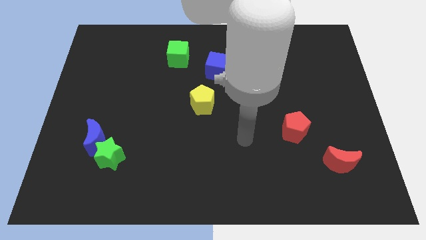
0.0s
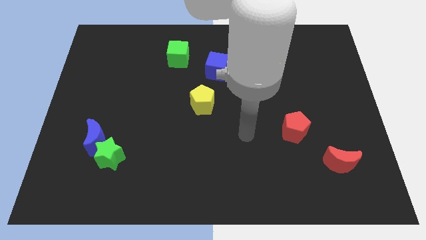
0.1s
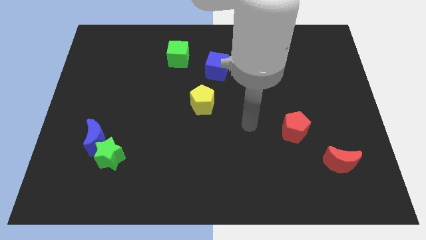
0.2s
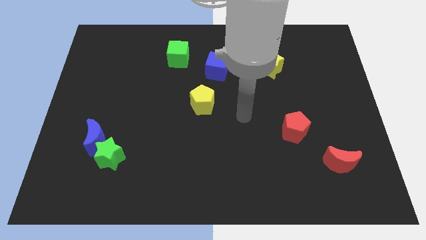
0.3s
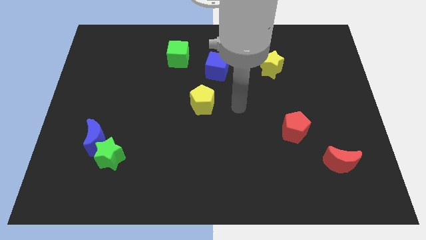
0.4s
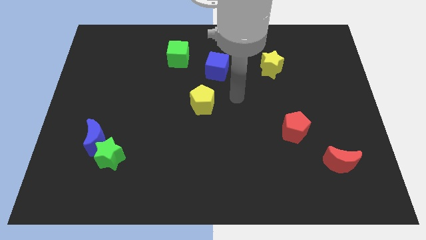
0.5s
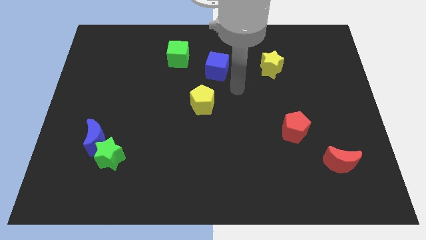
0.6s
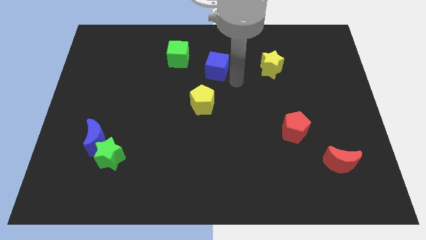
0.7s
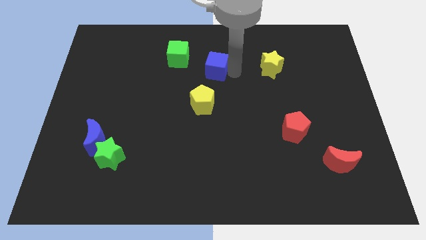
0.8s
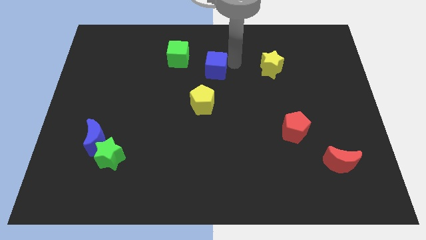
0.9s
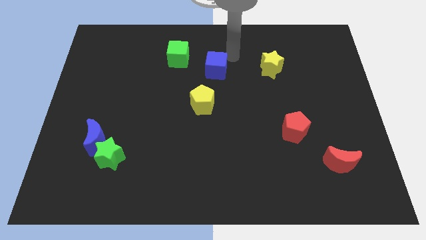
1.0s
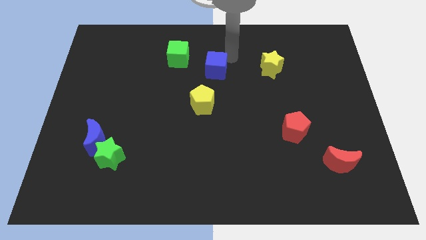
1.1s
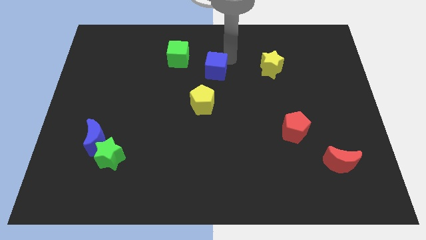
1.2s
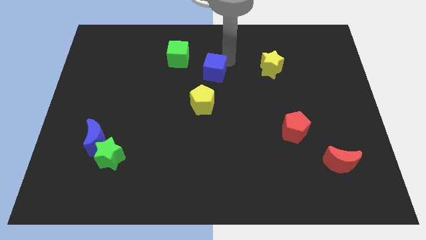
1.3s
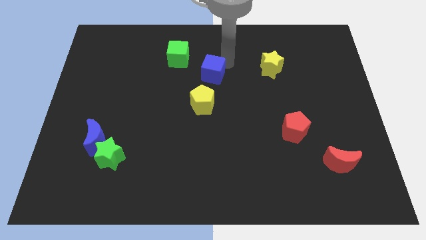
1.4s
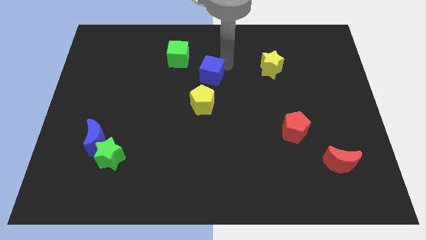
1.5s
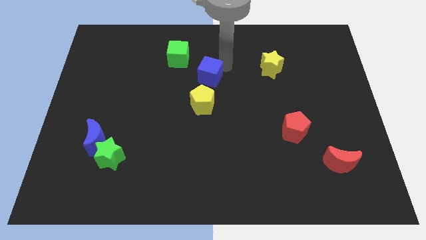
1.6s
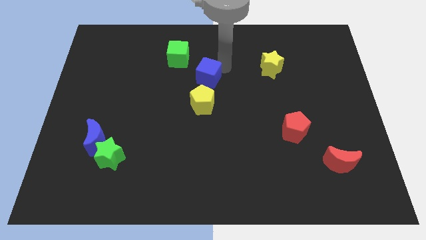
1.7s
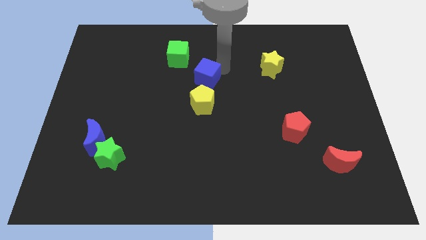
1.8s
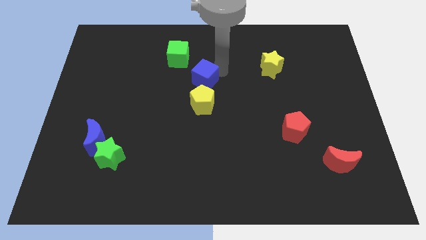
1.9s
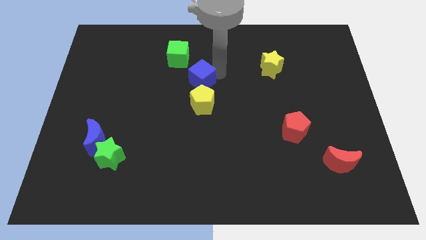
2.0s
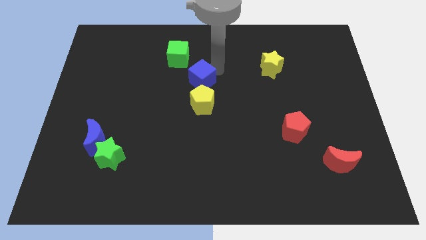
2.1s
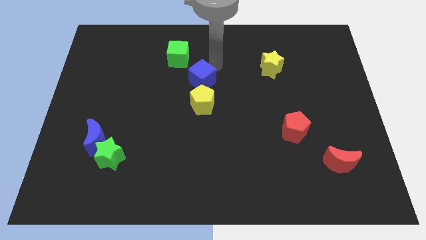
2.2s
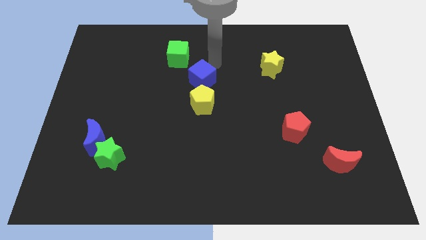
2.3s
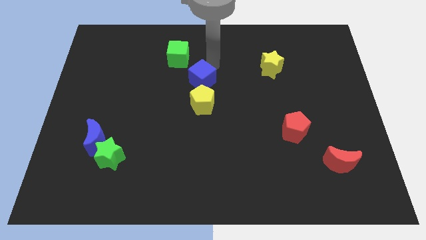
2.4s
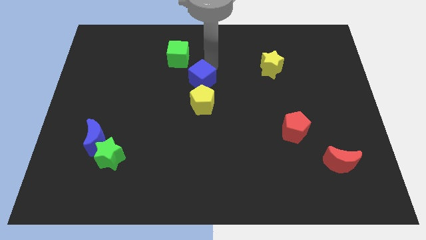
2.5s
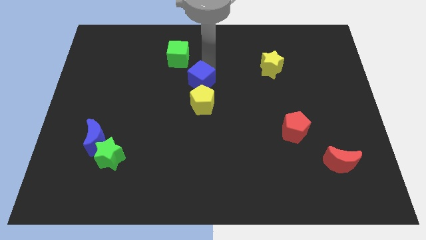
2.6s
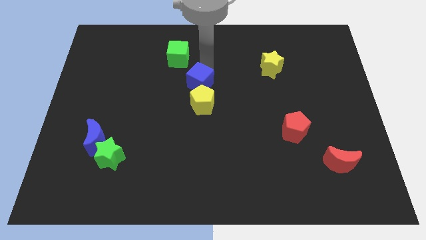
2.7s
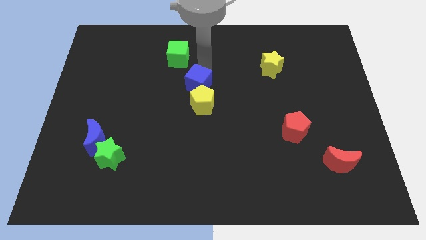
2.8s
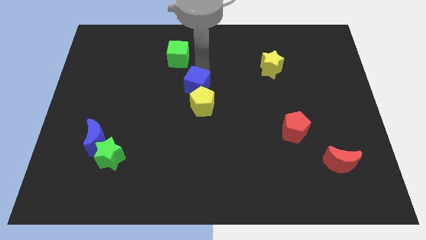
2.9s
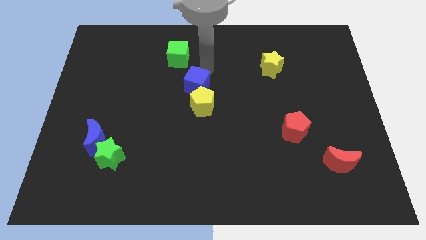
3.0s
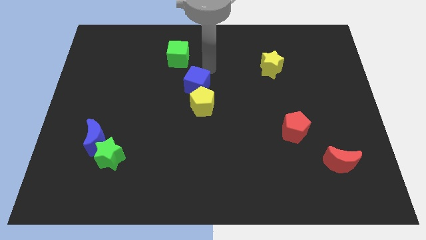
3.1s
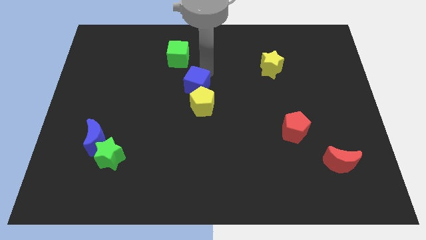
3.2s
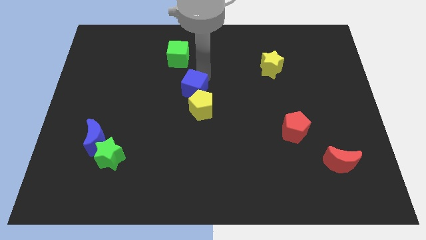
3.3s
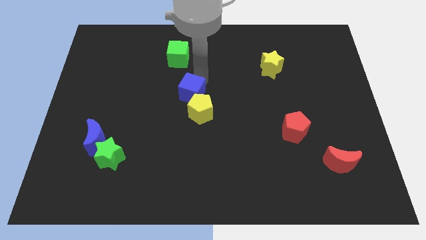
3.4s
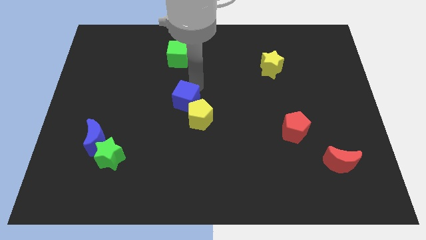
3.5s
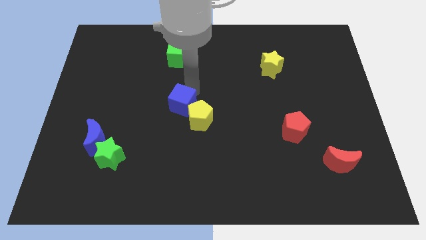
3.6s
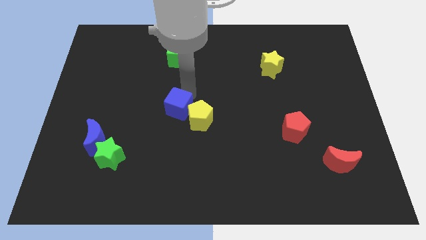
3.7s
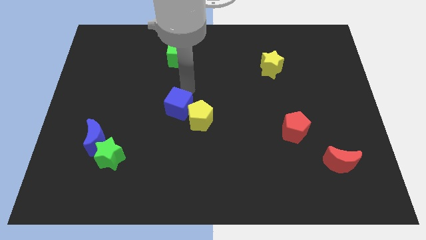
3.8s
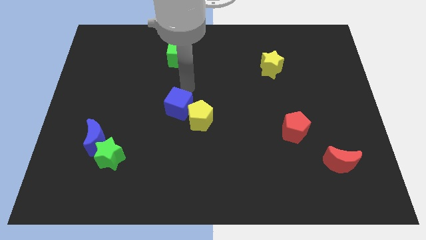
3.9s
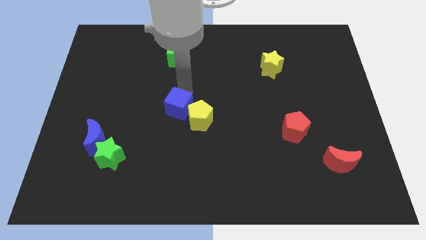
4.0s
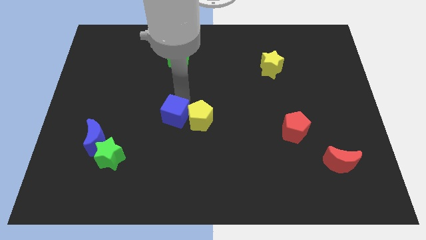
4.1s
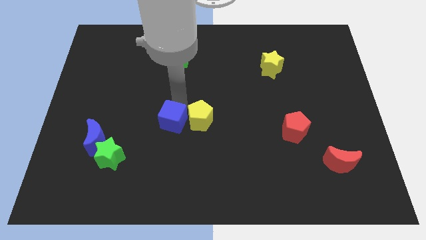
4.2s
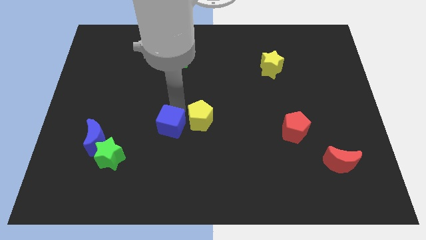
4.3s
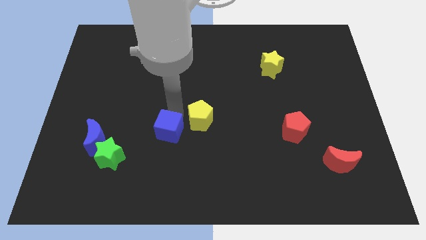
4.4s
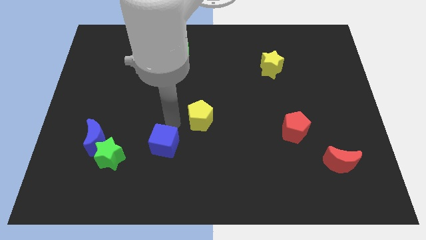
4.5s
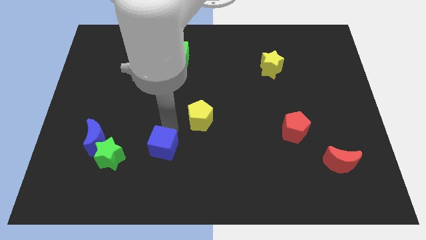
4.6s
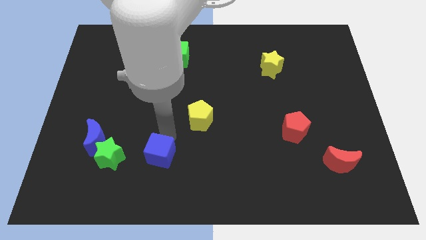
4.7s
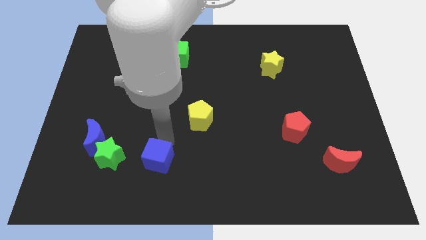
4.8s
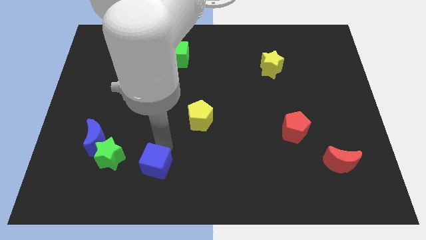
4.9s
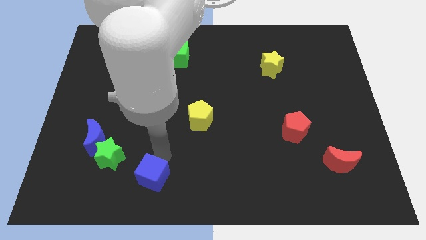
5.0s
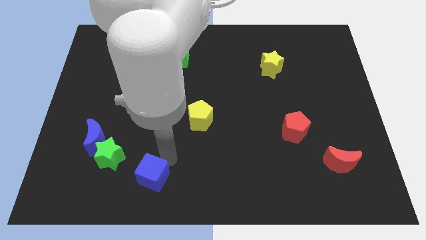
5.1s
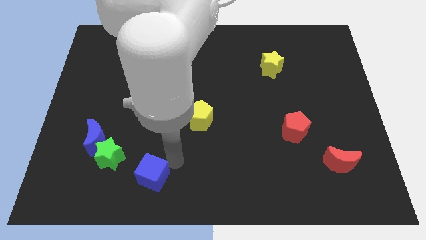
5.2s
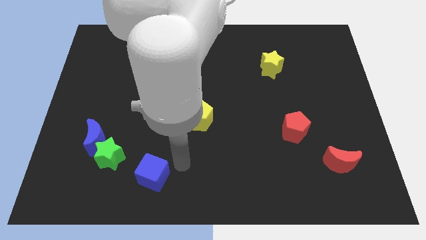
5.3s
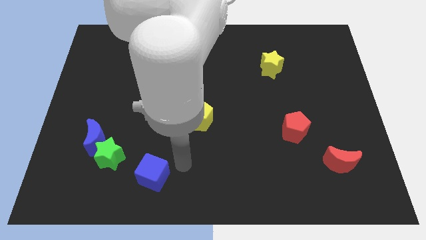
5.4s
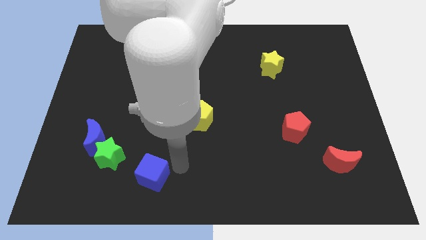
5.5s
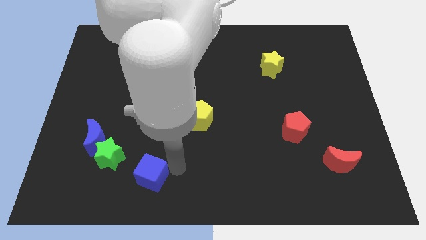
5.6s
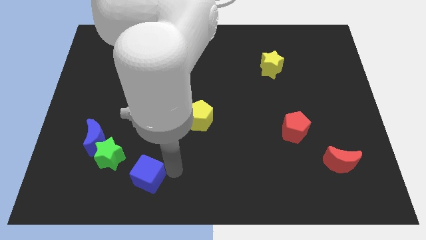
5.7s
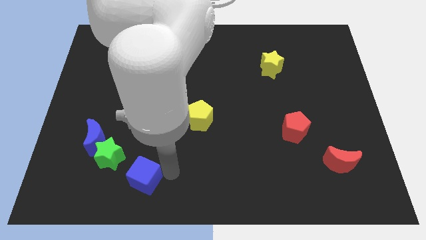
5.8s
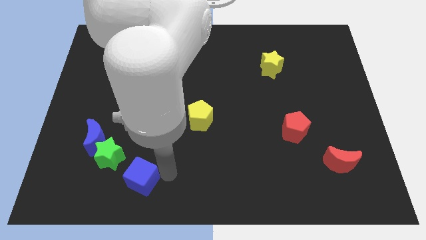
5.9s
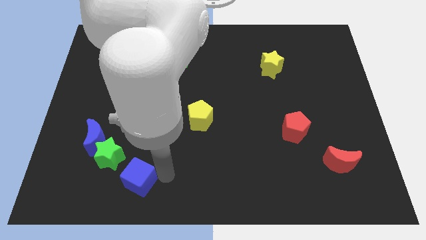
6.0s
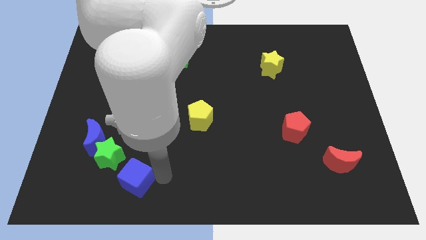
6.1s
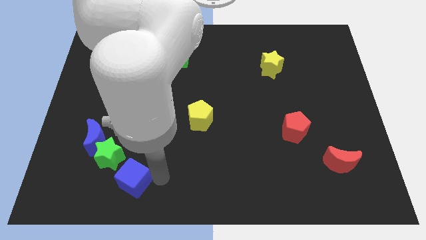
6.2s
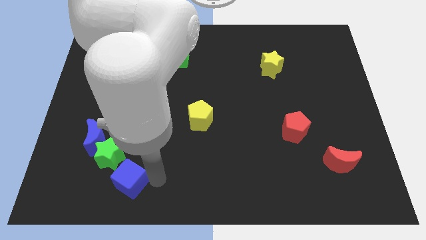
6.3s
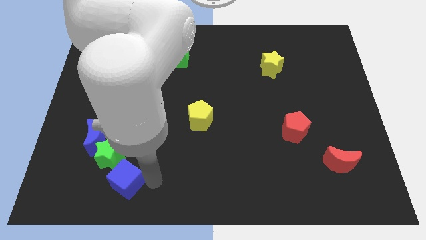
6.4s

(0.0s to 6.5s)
push the blue cube to the bottom right of the blue moon

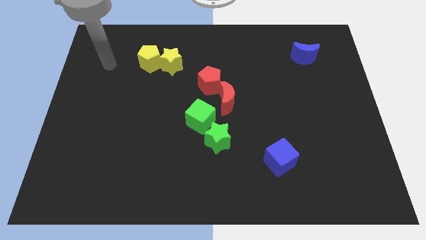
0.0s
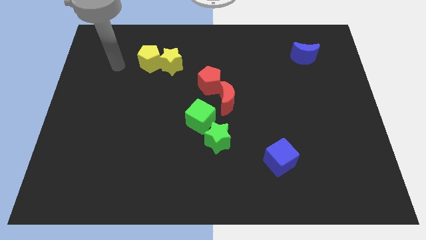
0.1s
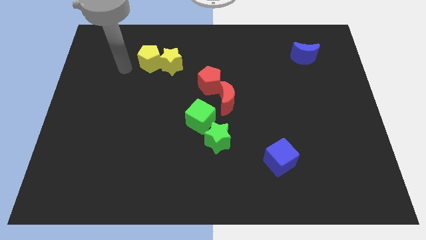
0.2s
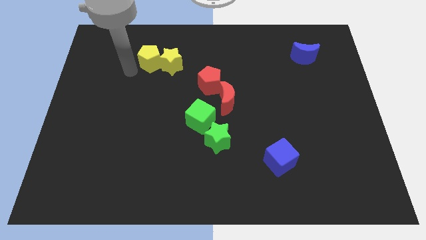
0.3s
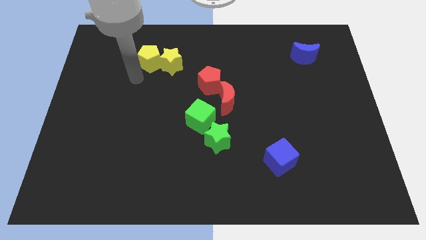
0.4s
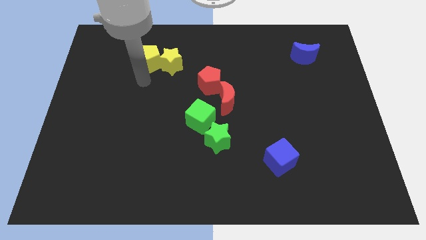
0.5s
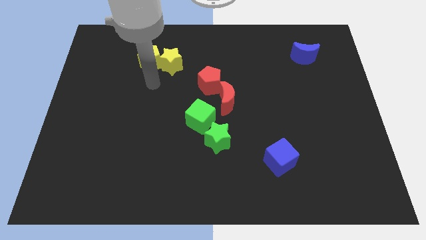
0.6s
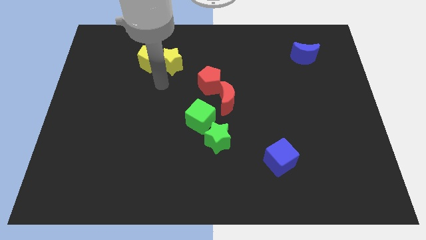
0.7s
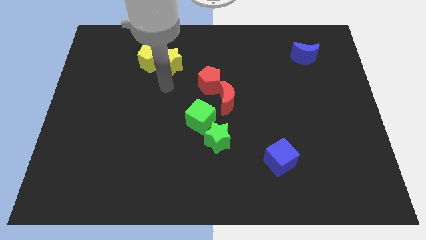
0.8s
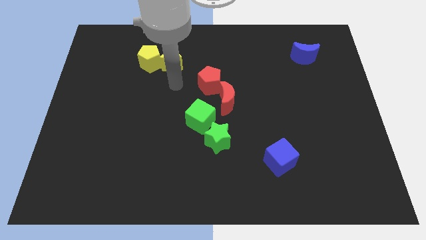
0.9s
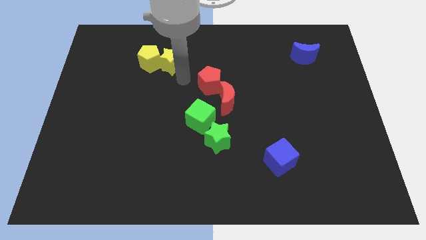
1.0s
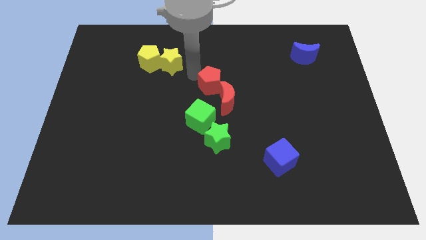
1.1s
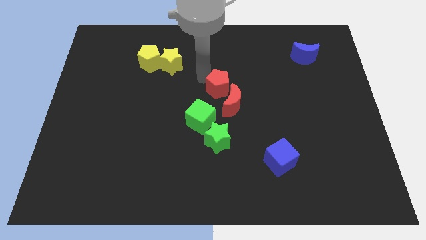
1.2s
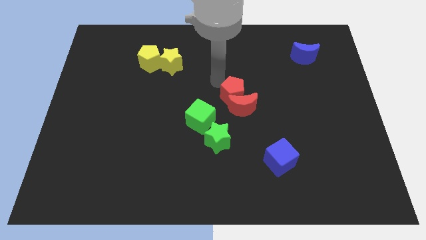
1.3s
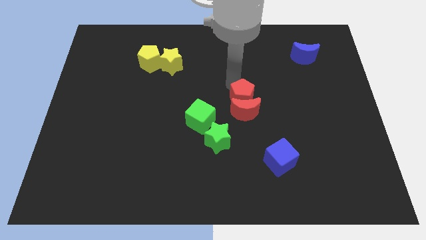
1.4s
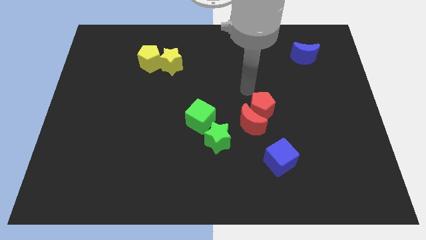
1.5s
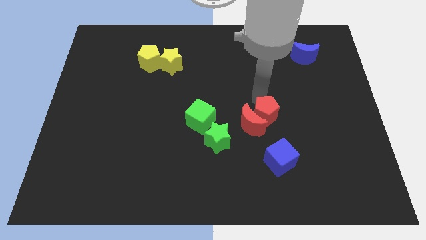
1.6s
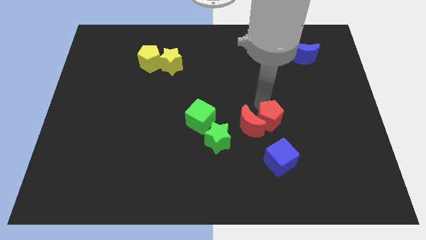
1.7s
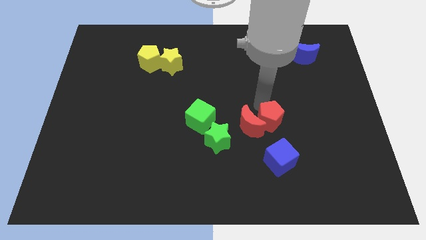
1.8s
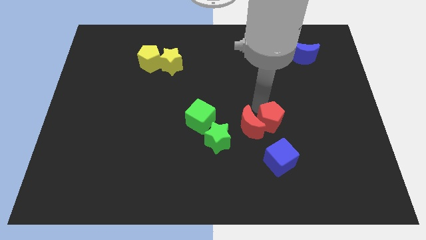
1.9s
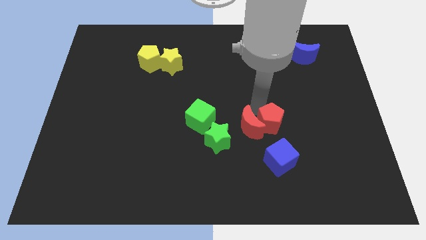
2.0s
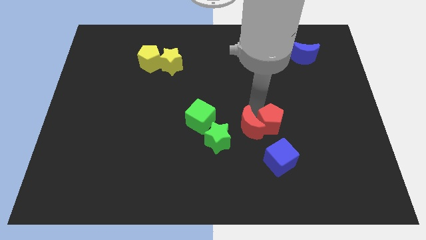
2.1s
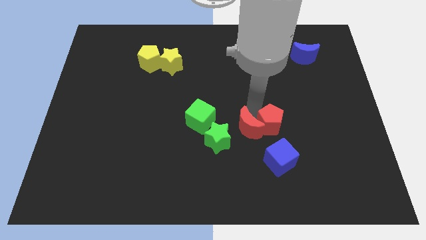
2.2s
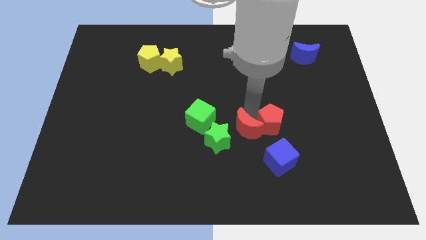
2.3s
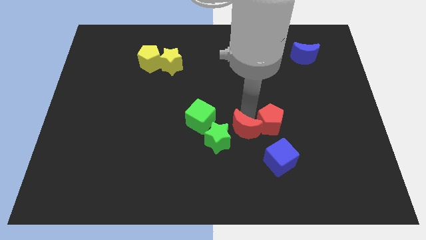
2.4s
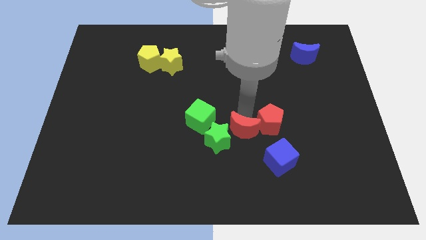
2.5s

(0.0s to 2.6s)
put the red moon diagonally down and to the right of the green cube
